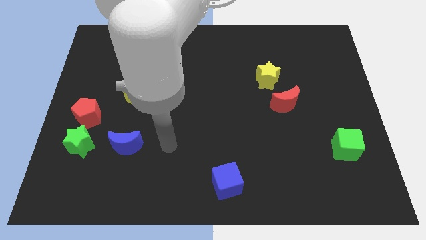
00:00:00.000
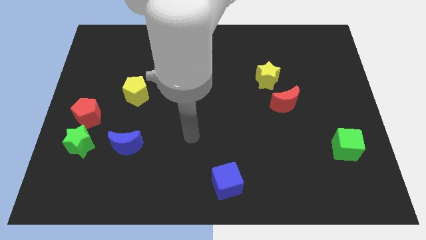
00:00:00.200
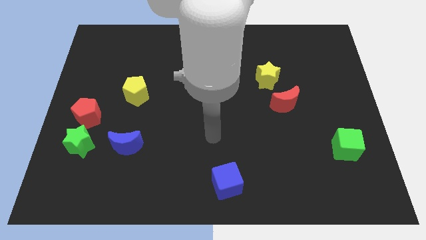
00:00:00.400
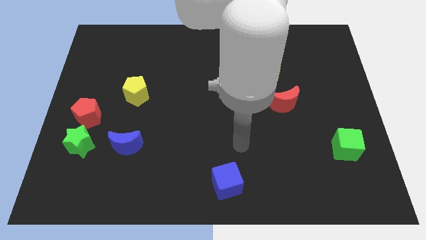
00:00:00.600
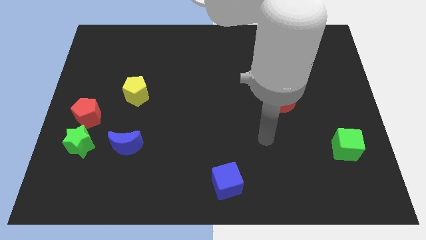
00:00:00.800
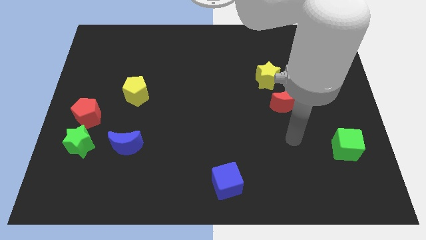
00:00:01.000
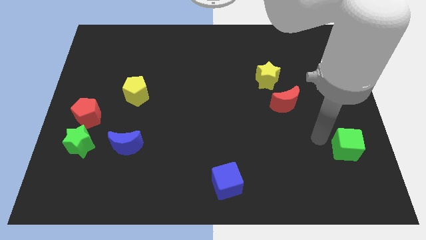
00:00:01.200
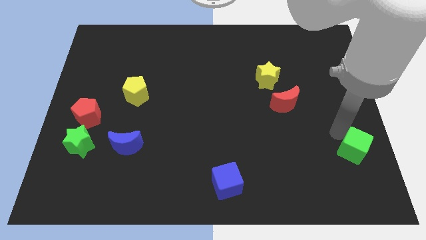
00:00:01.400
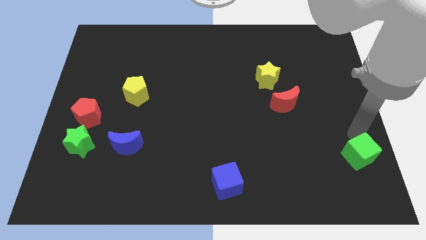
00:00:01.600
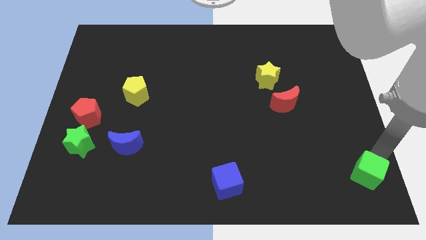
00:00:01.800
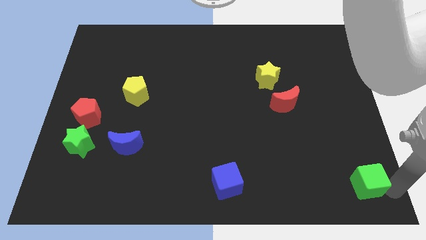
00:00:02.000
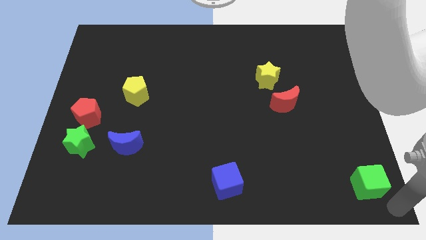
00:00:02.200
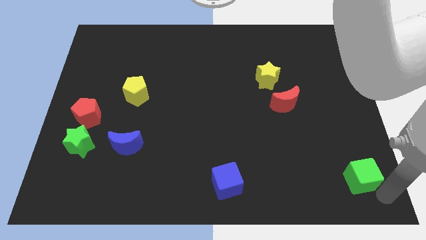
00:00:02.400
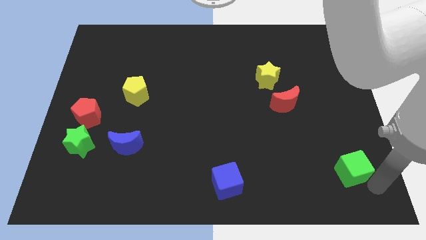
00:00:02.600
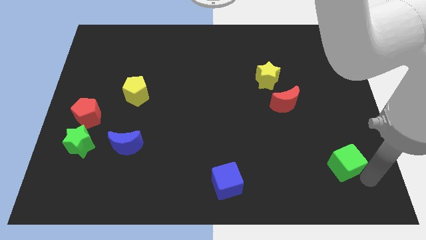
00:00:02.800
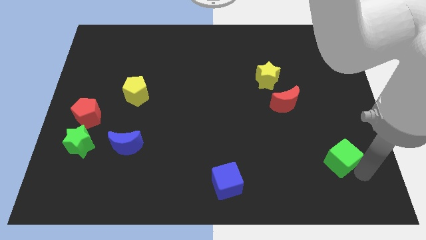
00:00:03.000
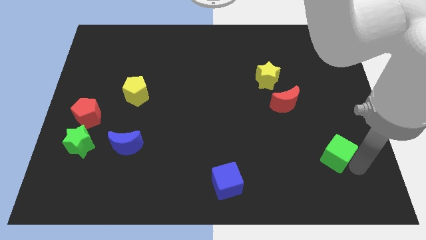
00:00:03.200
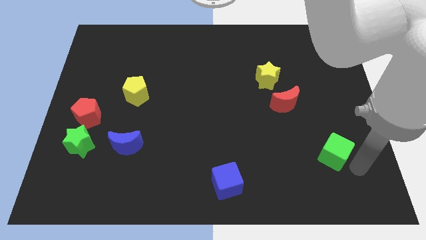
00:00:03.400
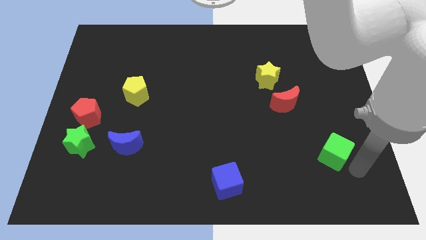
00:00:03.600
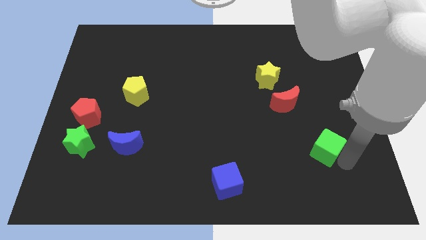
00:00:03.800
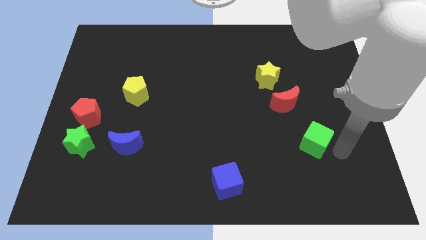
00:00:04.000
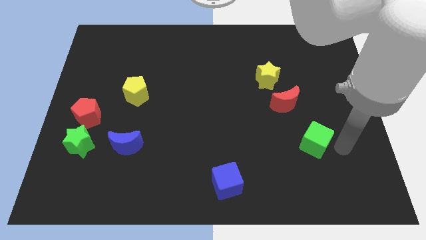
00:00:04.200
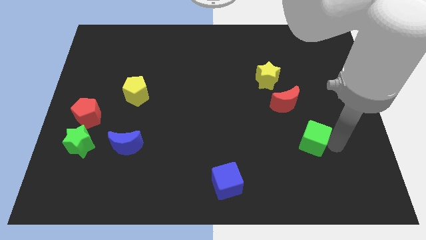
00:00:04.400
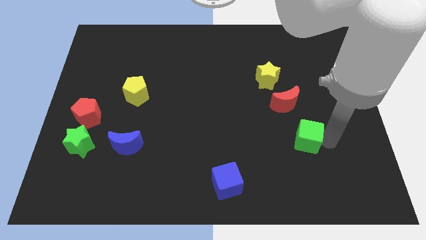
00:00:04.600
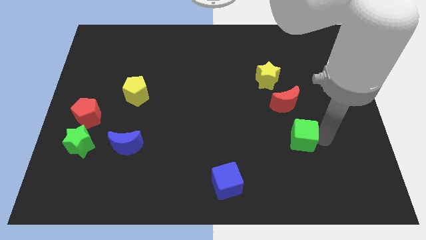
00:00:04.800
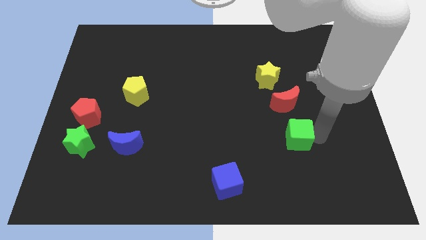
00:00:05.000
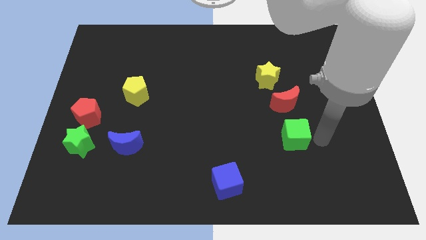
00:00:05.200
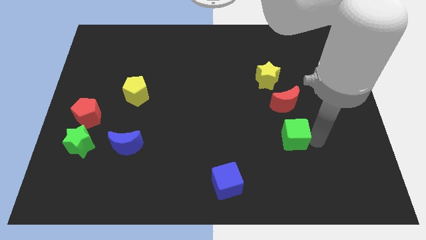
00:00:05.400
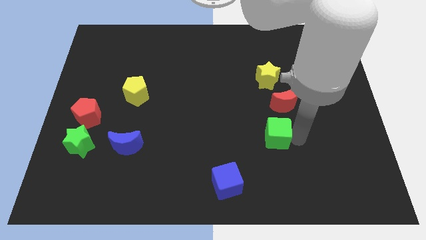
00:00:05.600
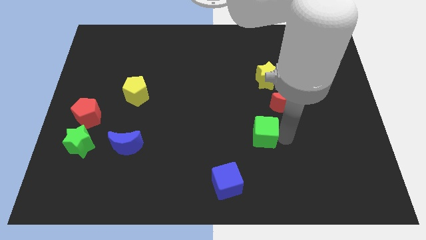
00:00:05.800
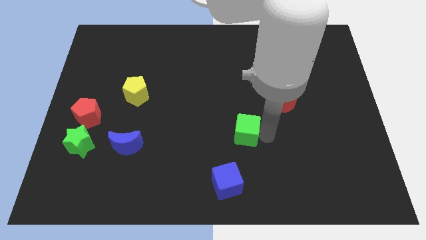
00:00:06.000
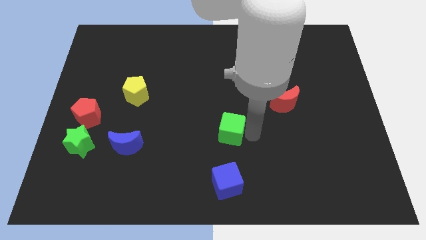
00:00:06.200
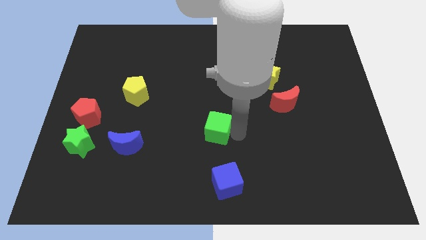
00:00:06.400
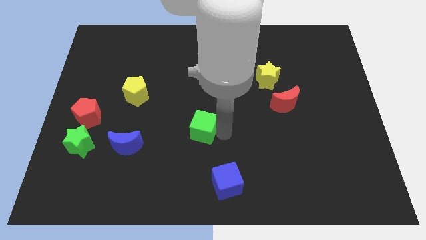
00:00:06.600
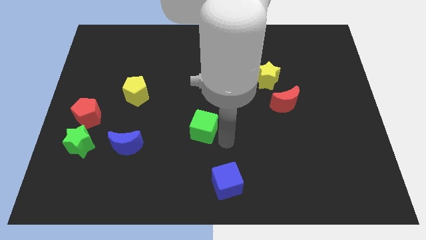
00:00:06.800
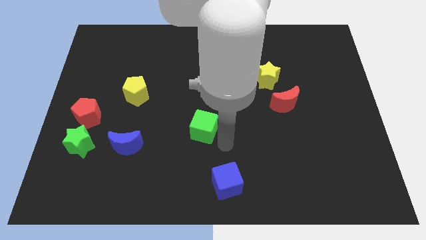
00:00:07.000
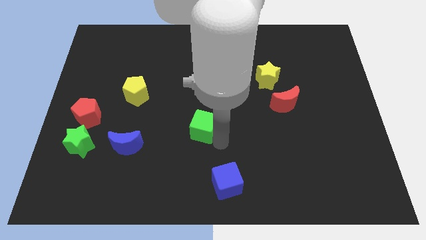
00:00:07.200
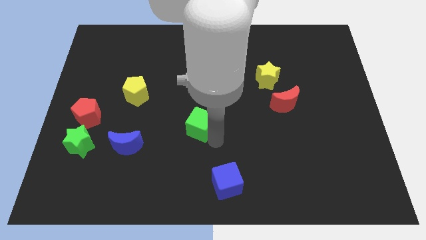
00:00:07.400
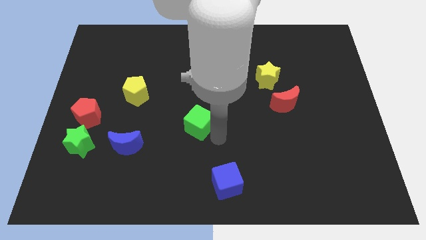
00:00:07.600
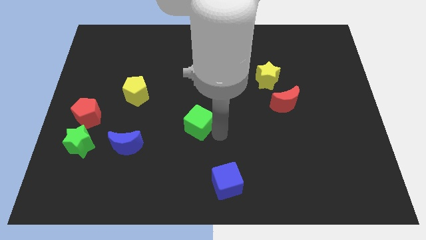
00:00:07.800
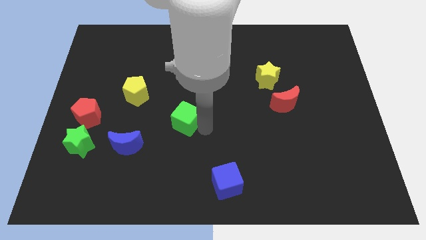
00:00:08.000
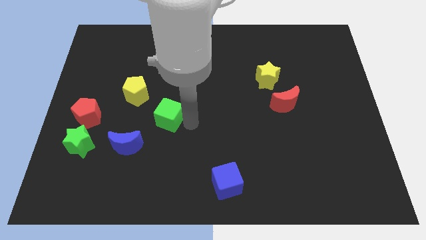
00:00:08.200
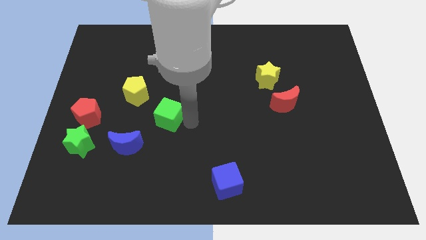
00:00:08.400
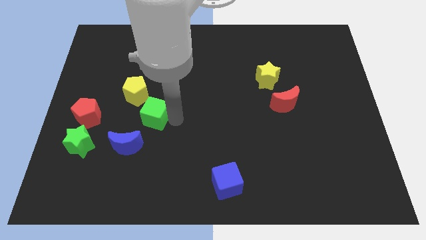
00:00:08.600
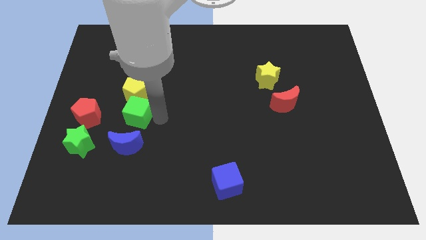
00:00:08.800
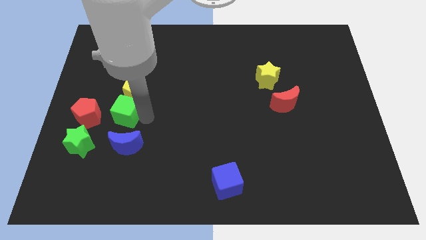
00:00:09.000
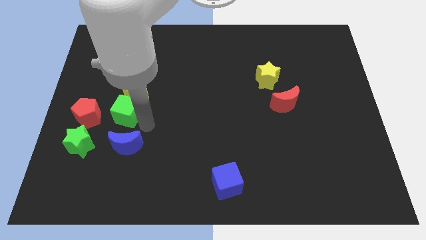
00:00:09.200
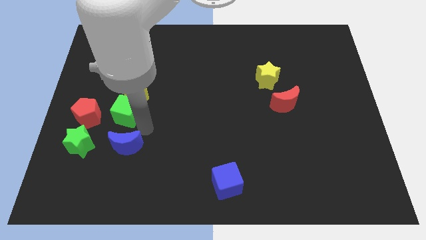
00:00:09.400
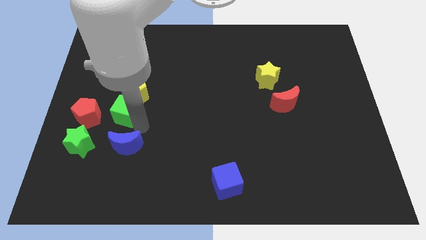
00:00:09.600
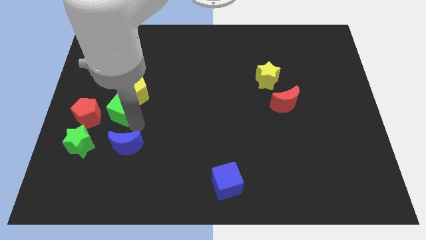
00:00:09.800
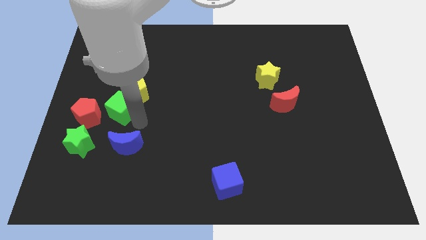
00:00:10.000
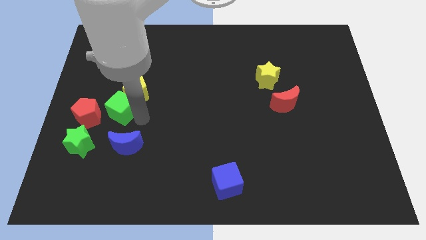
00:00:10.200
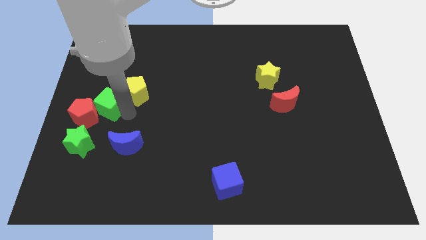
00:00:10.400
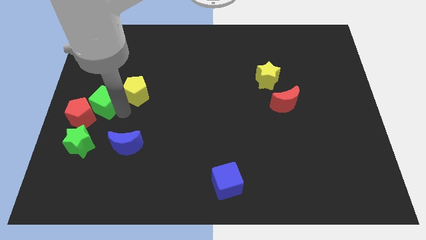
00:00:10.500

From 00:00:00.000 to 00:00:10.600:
move the green cube to the center left

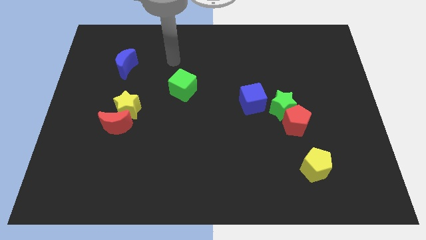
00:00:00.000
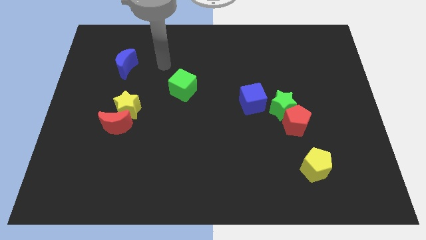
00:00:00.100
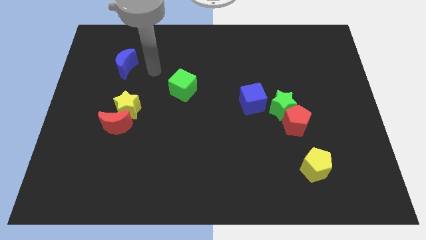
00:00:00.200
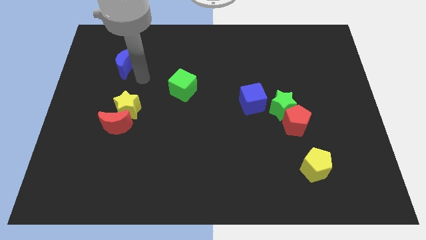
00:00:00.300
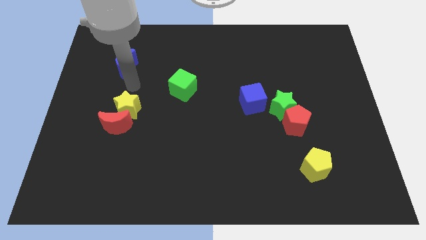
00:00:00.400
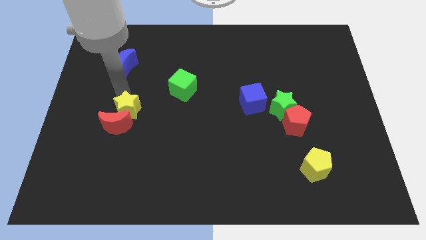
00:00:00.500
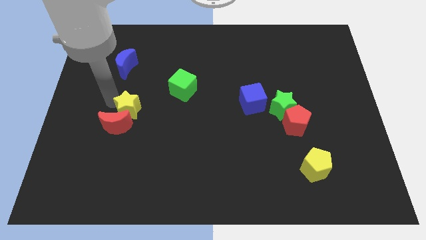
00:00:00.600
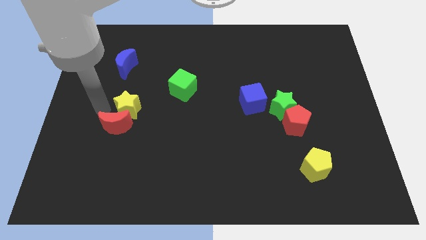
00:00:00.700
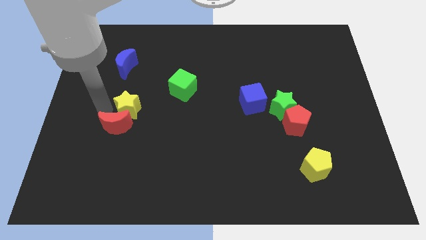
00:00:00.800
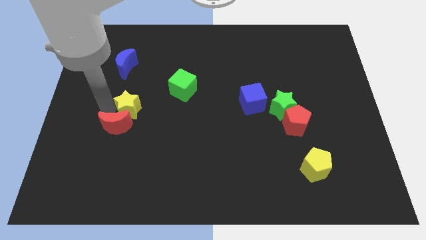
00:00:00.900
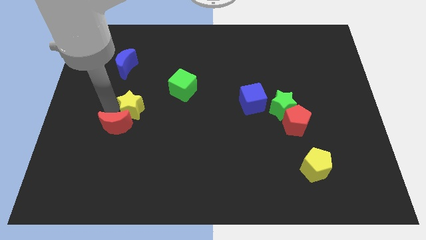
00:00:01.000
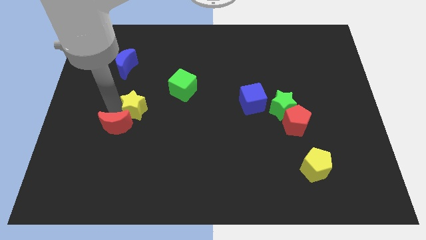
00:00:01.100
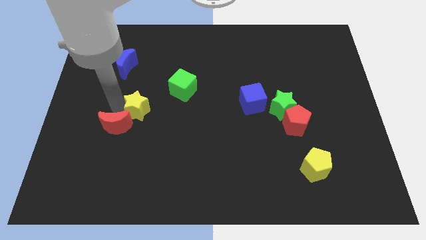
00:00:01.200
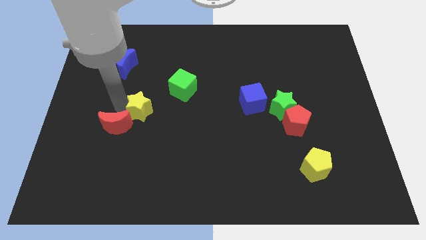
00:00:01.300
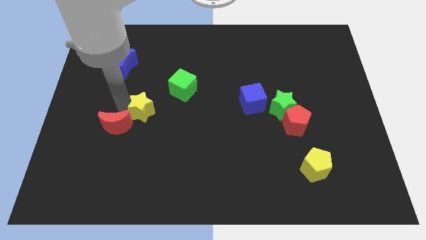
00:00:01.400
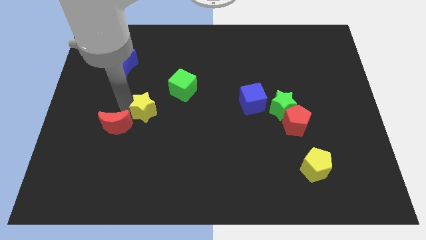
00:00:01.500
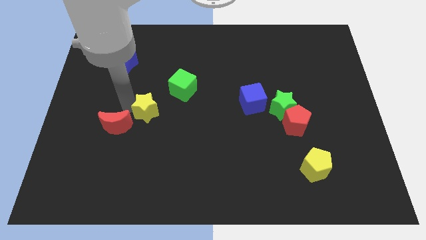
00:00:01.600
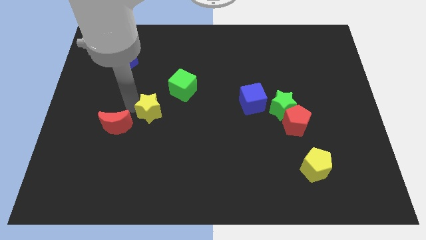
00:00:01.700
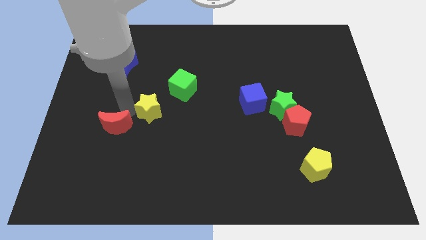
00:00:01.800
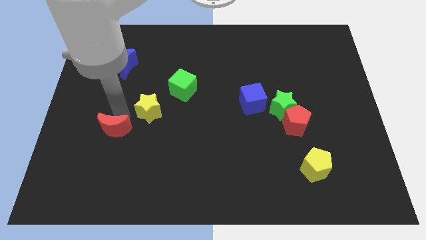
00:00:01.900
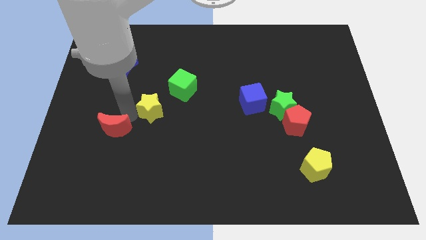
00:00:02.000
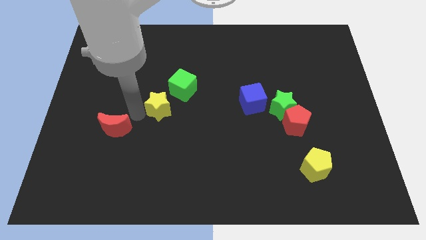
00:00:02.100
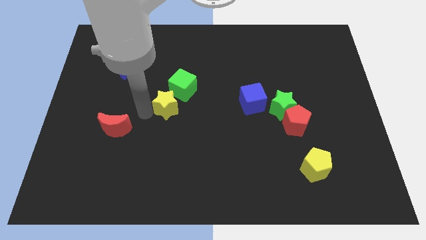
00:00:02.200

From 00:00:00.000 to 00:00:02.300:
slide the yellow star to the middle

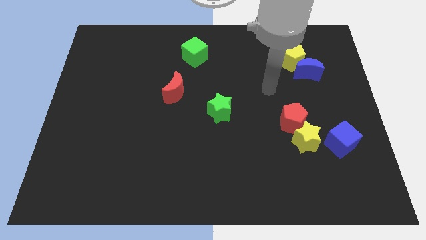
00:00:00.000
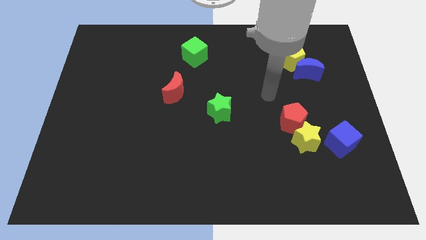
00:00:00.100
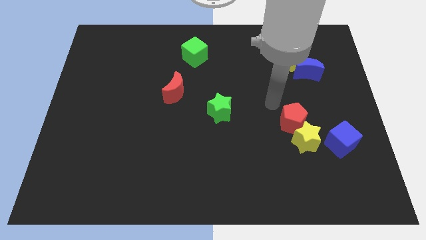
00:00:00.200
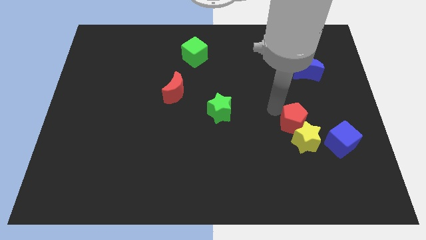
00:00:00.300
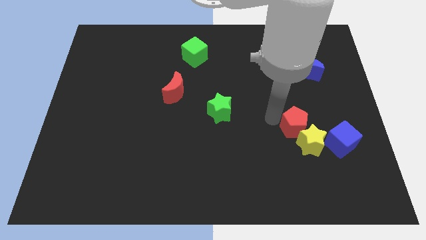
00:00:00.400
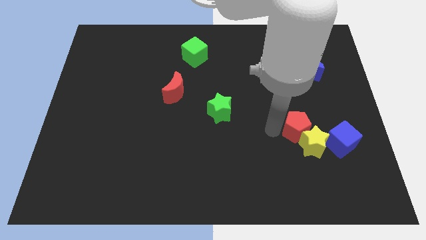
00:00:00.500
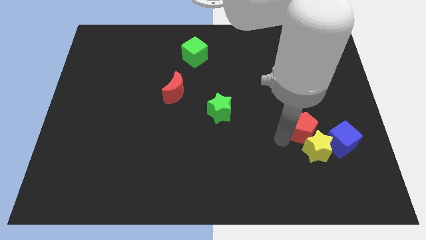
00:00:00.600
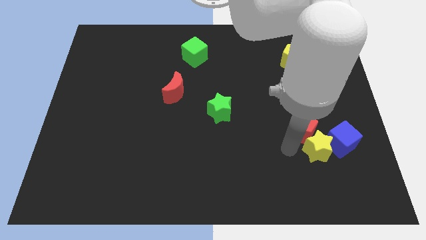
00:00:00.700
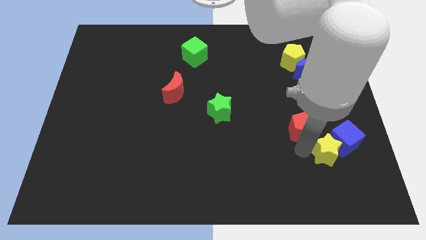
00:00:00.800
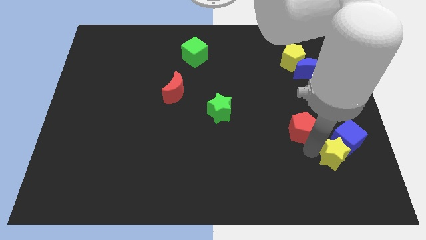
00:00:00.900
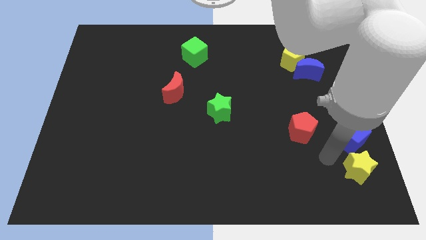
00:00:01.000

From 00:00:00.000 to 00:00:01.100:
move the blue cube to the right side
